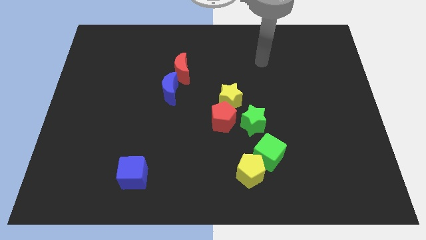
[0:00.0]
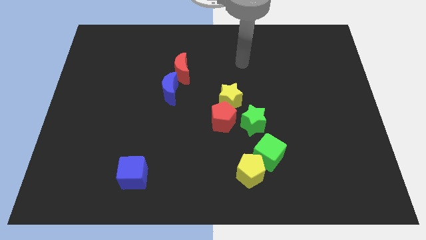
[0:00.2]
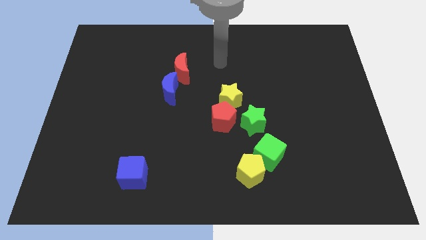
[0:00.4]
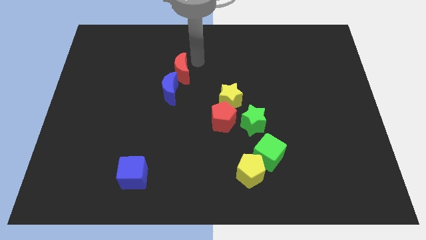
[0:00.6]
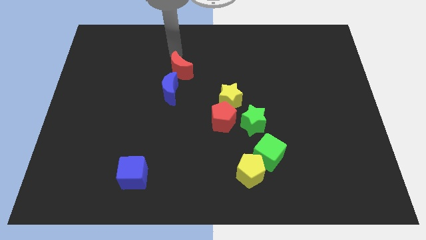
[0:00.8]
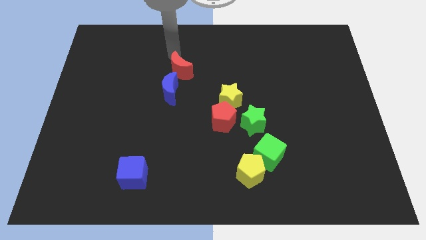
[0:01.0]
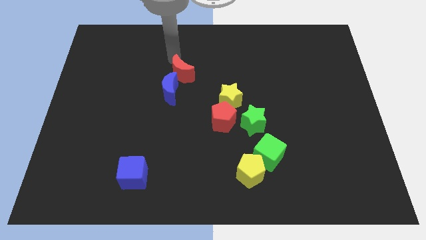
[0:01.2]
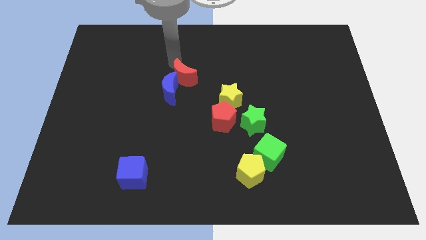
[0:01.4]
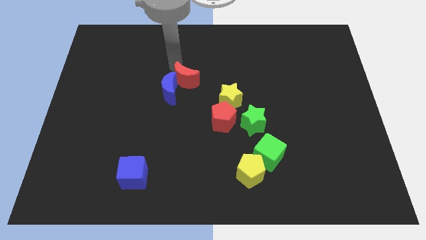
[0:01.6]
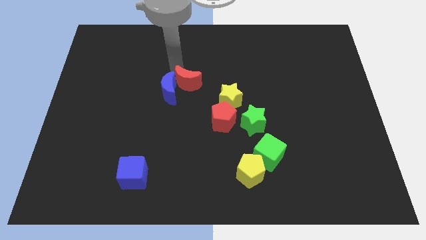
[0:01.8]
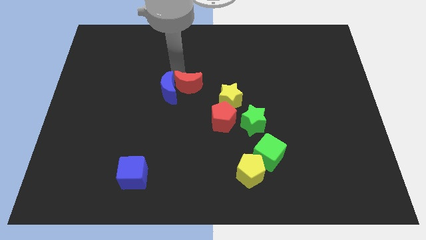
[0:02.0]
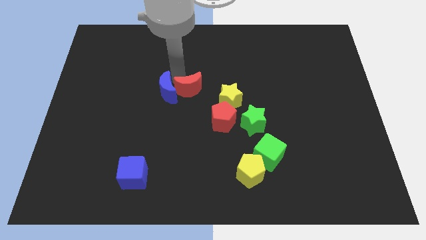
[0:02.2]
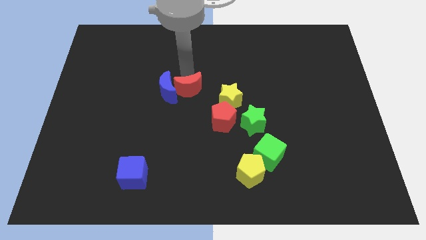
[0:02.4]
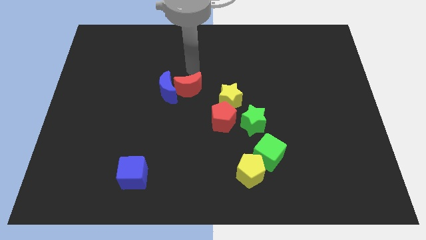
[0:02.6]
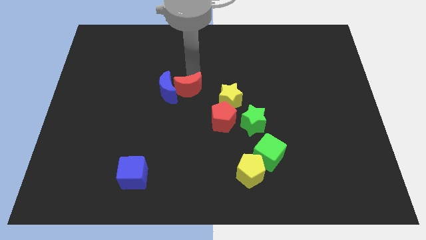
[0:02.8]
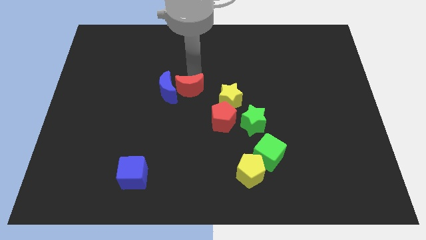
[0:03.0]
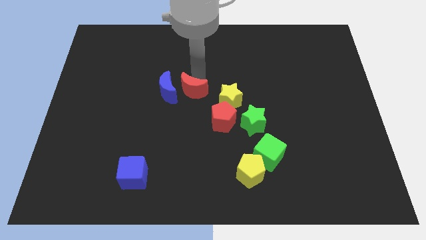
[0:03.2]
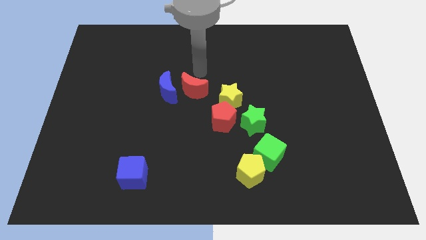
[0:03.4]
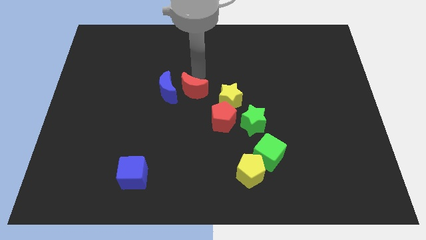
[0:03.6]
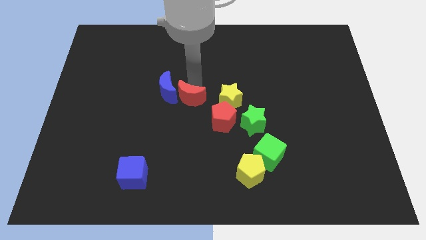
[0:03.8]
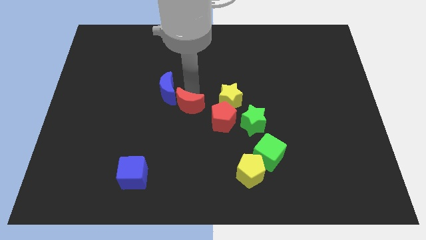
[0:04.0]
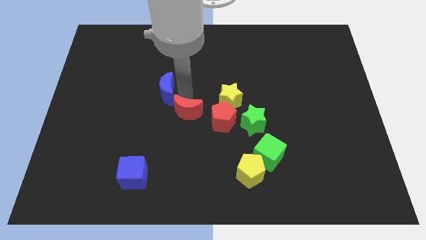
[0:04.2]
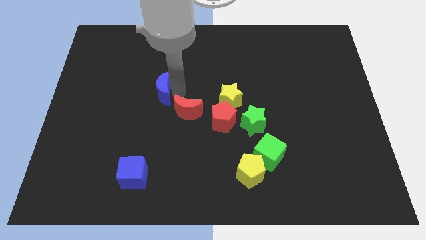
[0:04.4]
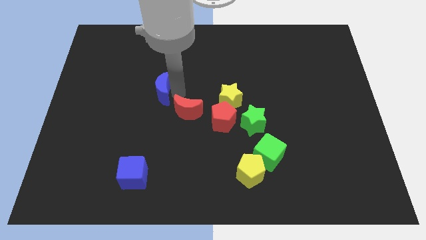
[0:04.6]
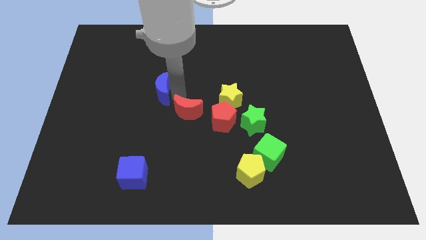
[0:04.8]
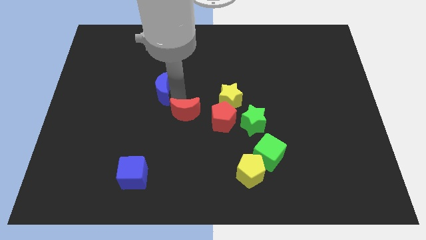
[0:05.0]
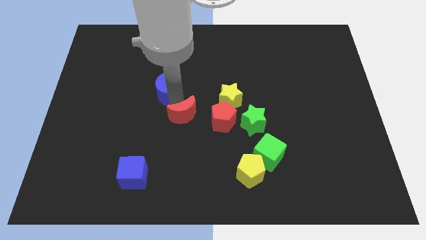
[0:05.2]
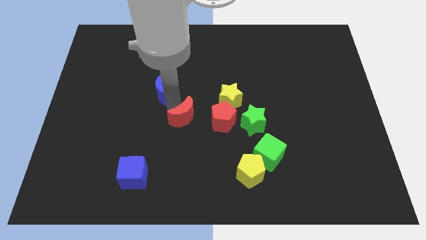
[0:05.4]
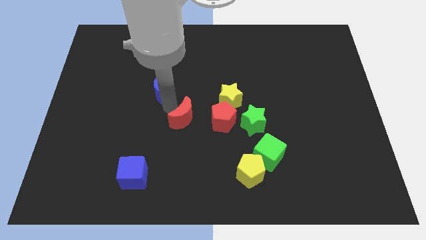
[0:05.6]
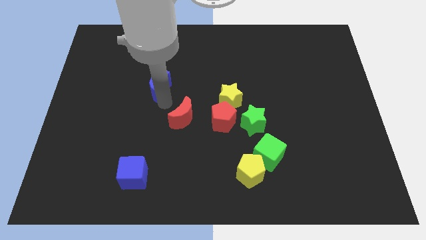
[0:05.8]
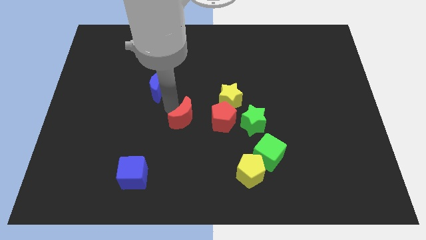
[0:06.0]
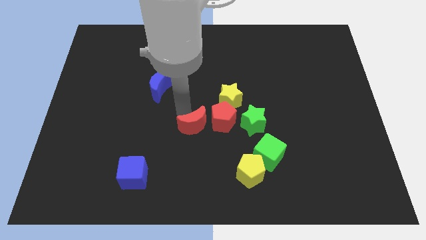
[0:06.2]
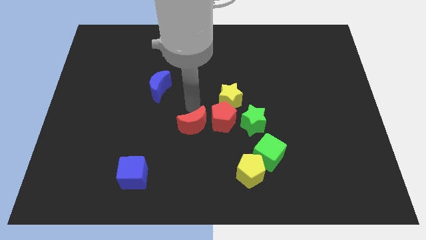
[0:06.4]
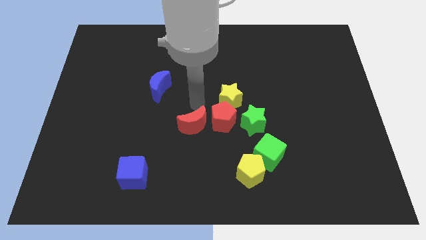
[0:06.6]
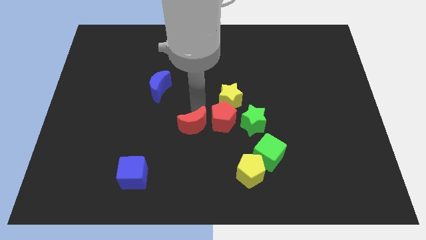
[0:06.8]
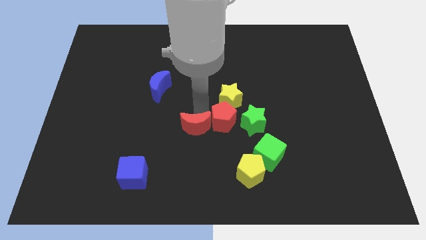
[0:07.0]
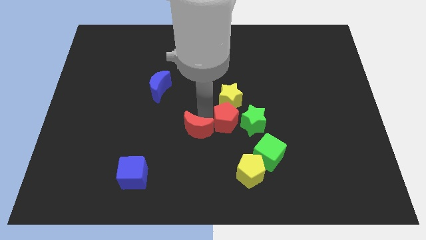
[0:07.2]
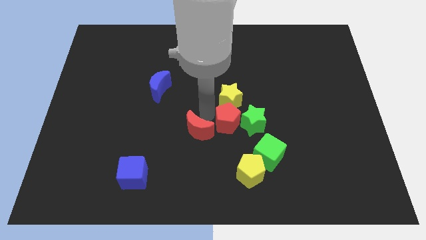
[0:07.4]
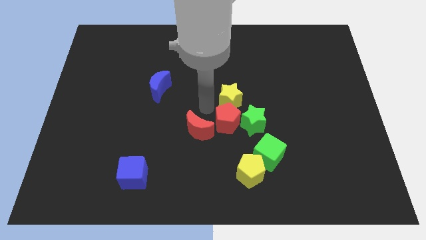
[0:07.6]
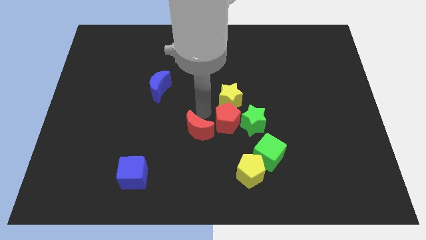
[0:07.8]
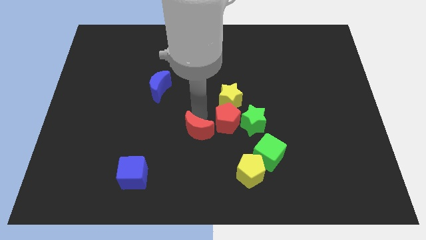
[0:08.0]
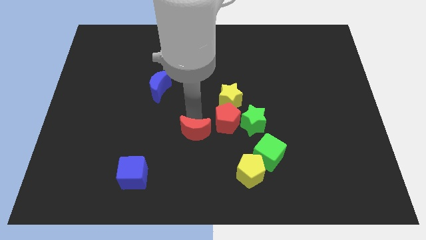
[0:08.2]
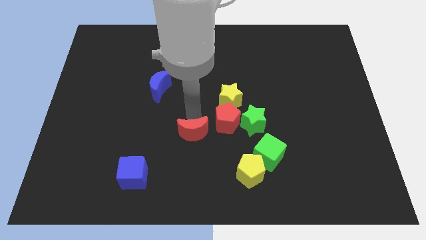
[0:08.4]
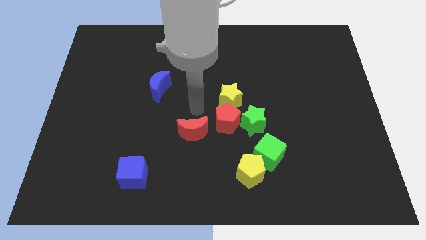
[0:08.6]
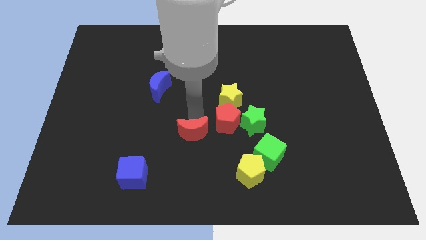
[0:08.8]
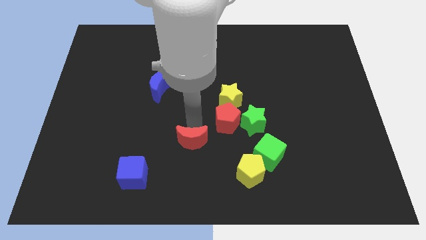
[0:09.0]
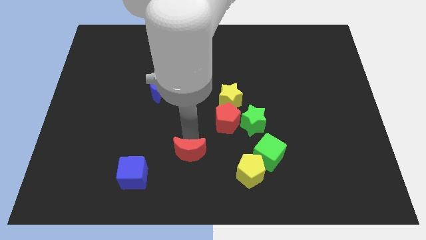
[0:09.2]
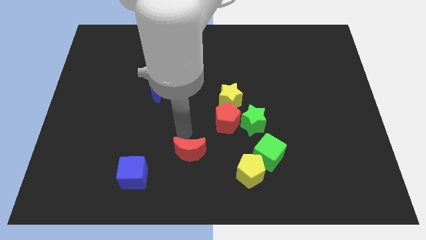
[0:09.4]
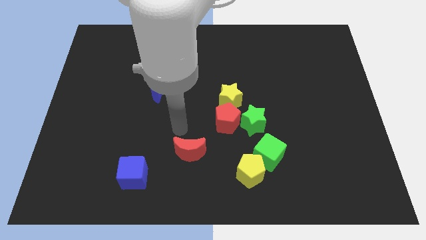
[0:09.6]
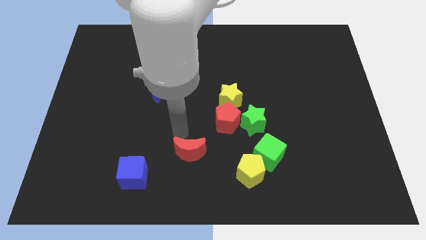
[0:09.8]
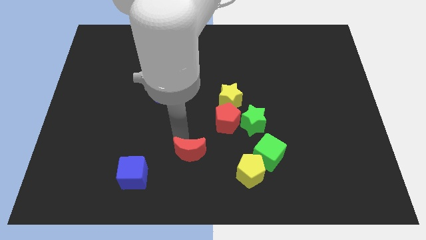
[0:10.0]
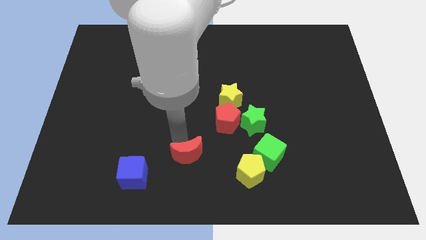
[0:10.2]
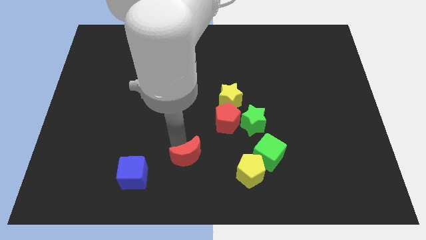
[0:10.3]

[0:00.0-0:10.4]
put the red moon to the bottom side

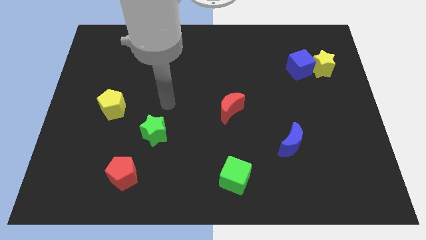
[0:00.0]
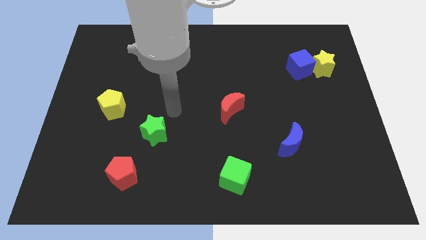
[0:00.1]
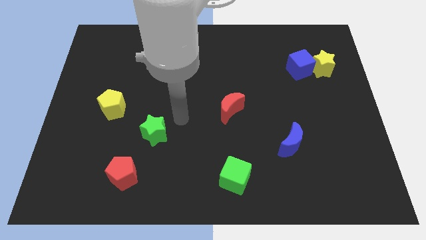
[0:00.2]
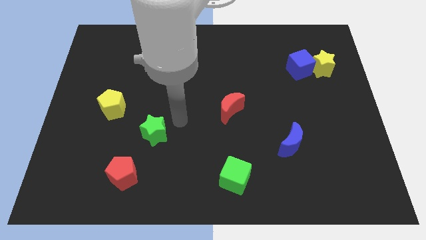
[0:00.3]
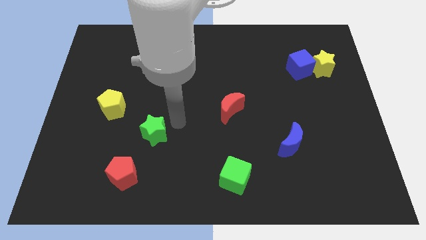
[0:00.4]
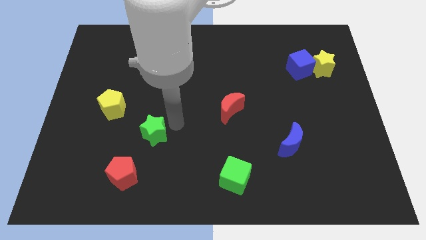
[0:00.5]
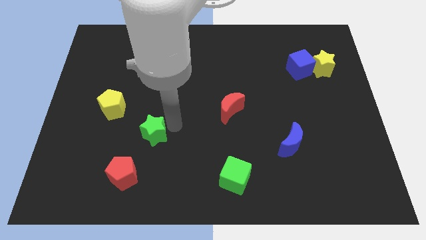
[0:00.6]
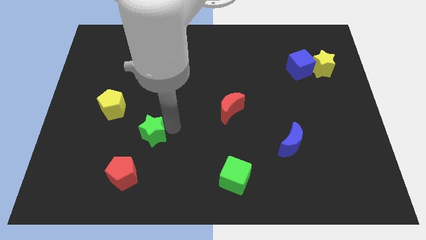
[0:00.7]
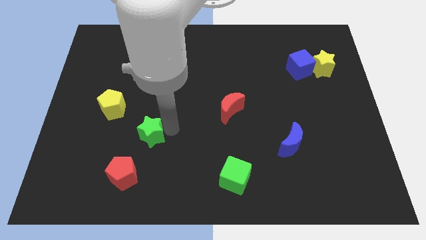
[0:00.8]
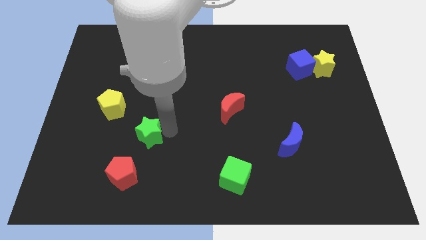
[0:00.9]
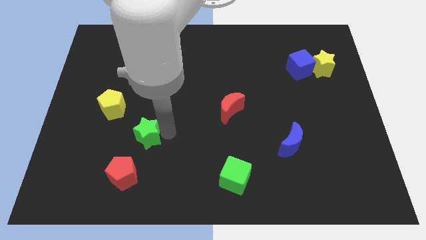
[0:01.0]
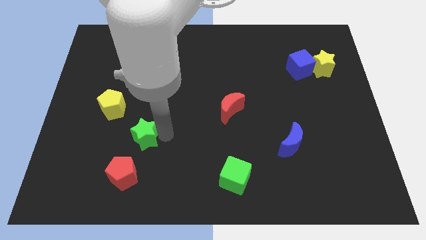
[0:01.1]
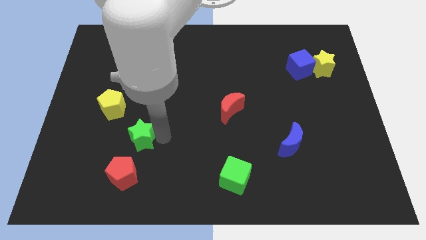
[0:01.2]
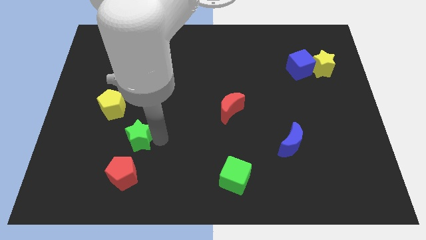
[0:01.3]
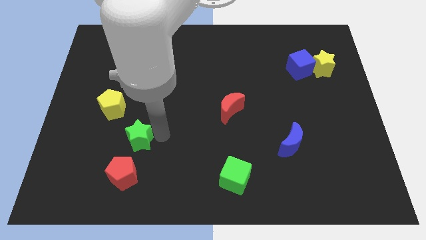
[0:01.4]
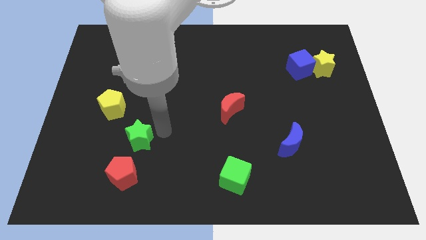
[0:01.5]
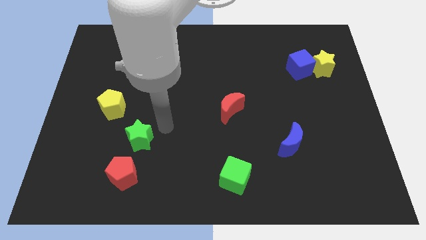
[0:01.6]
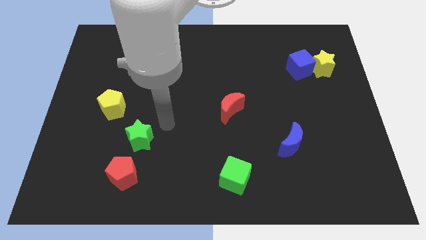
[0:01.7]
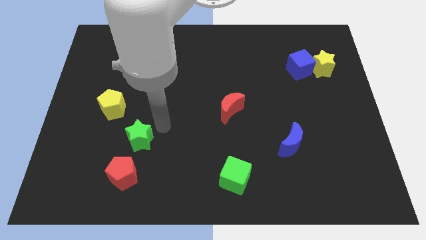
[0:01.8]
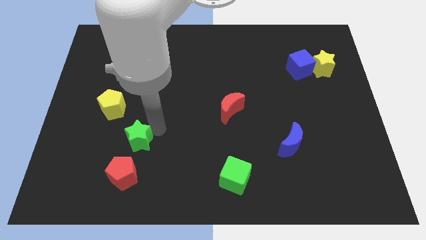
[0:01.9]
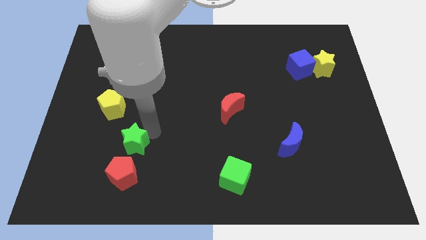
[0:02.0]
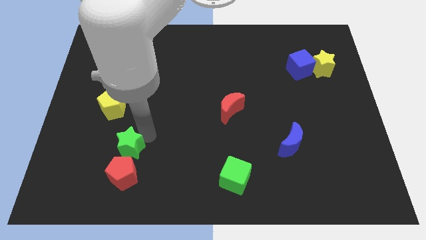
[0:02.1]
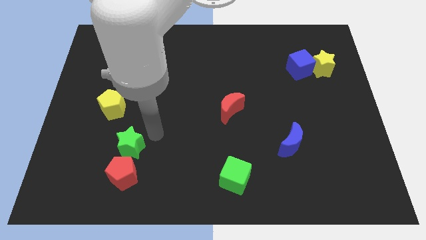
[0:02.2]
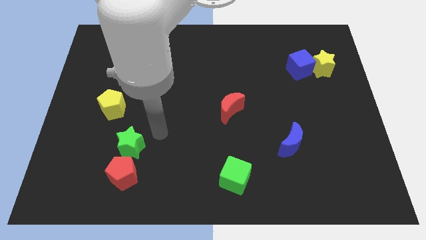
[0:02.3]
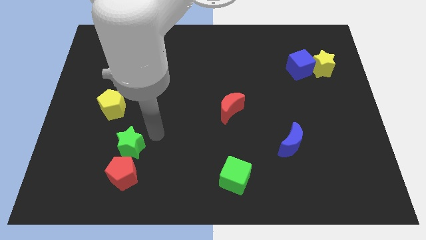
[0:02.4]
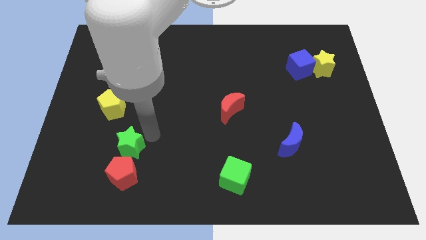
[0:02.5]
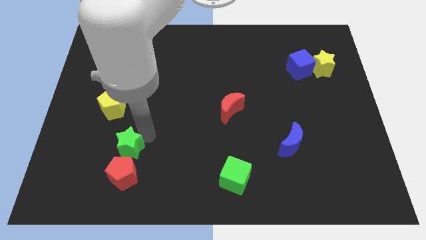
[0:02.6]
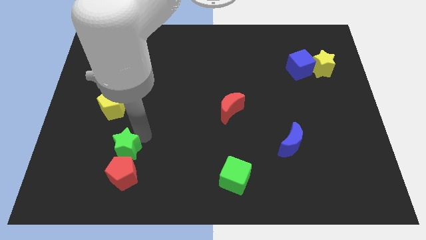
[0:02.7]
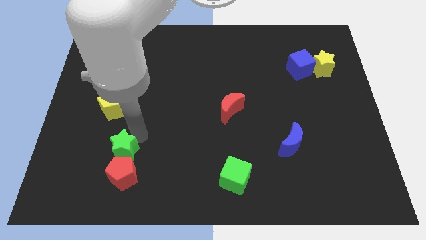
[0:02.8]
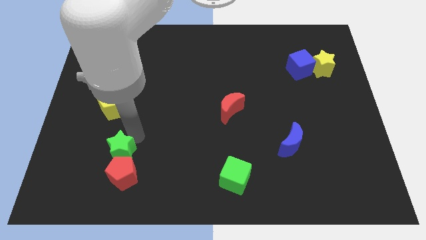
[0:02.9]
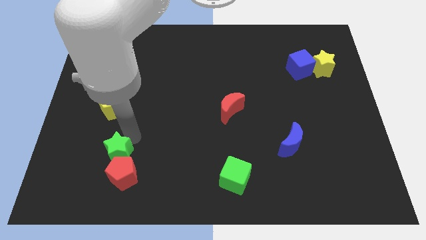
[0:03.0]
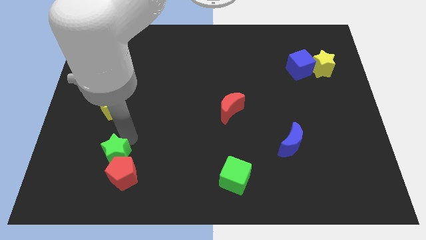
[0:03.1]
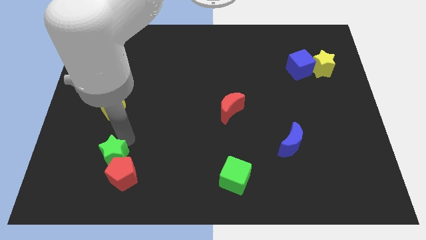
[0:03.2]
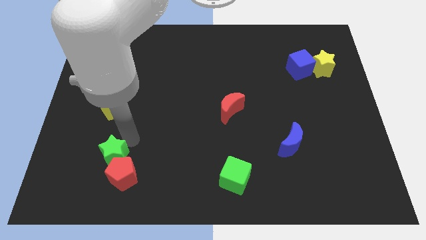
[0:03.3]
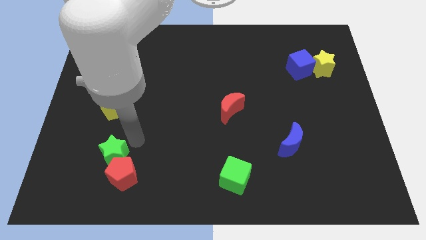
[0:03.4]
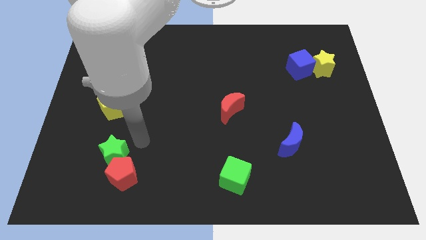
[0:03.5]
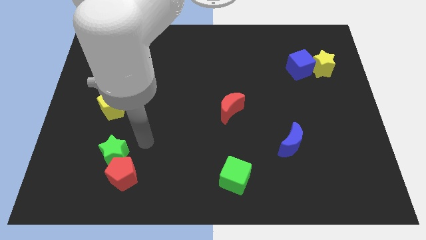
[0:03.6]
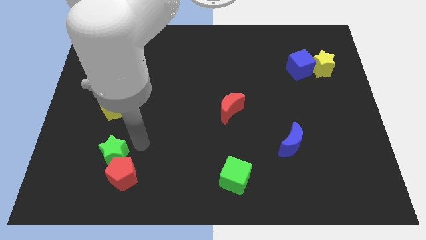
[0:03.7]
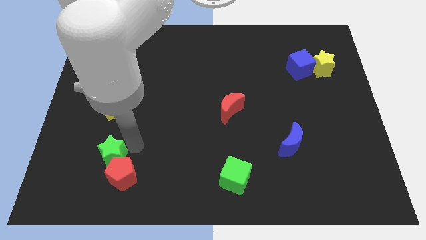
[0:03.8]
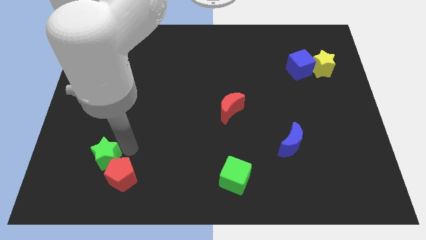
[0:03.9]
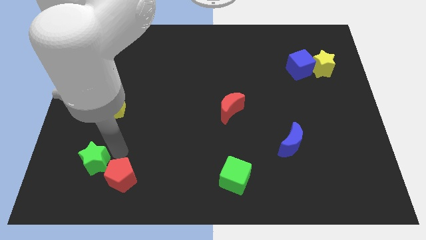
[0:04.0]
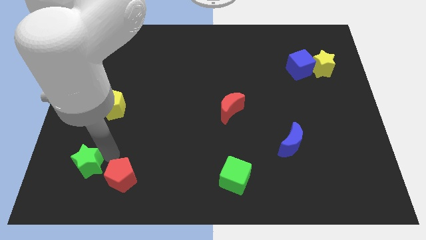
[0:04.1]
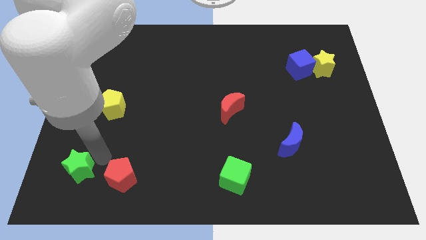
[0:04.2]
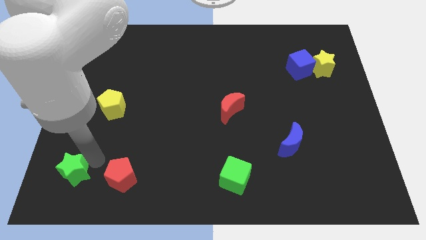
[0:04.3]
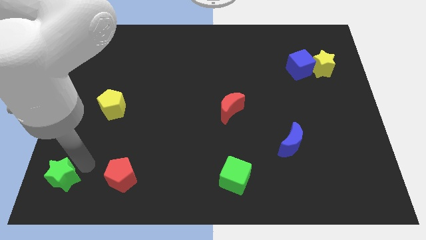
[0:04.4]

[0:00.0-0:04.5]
move the green star to the bottom left
